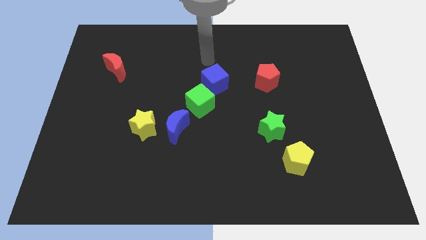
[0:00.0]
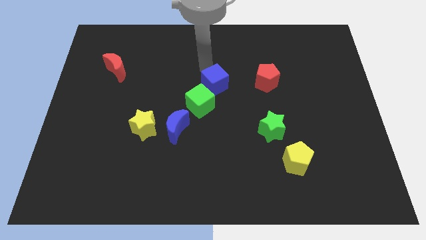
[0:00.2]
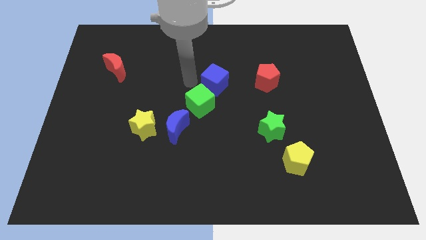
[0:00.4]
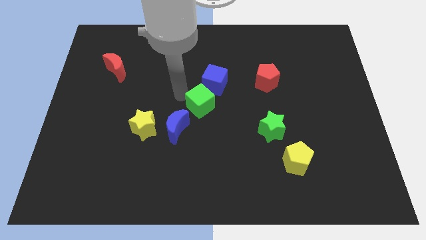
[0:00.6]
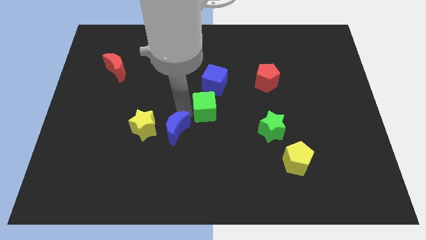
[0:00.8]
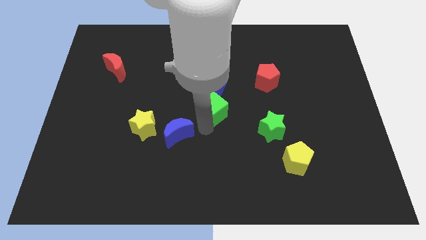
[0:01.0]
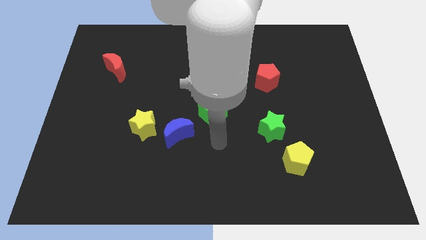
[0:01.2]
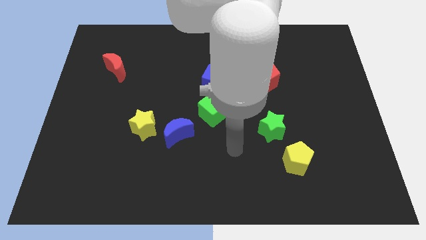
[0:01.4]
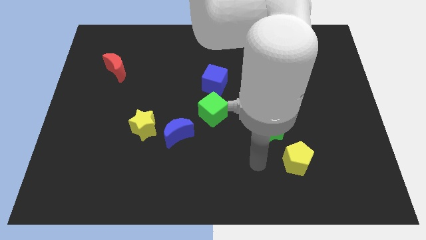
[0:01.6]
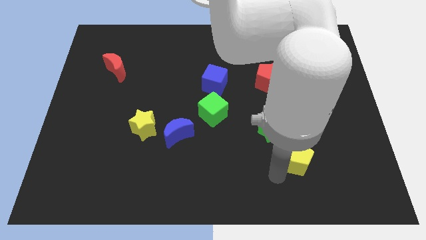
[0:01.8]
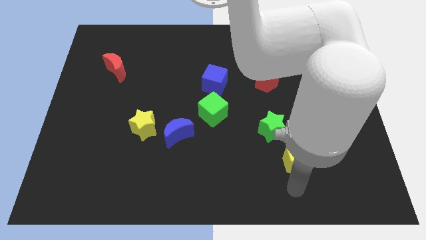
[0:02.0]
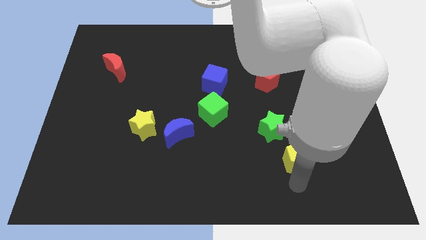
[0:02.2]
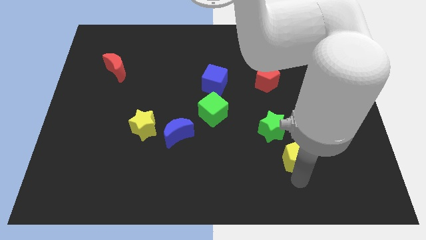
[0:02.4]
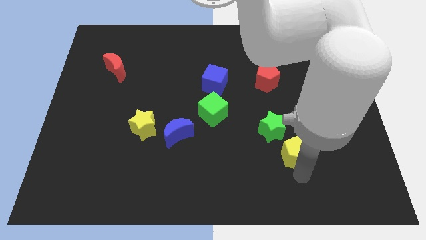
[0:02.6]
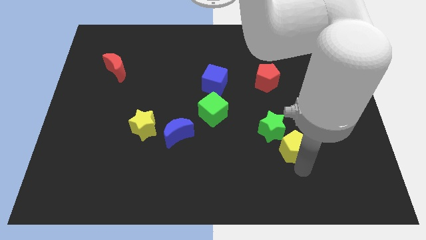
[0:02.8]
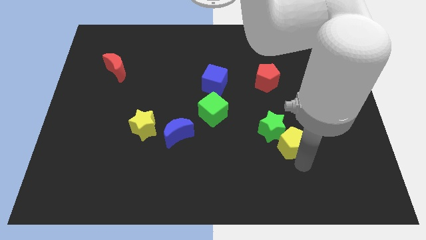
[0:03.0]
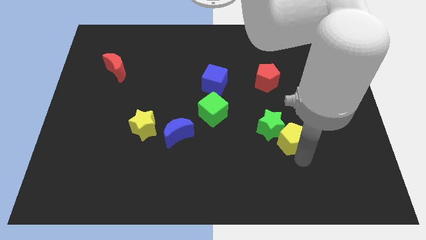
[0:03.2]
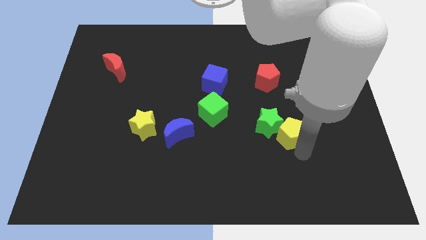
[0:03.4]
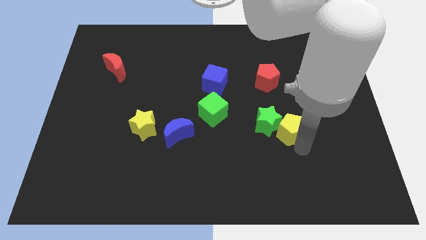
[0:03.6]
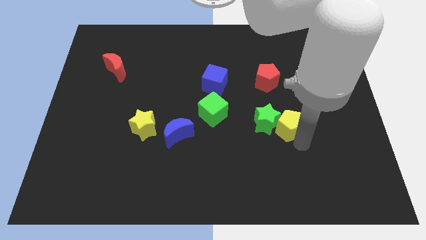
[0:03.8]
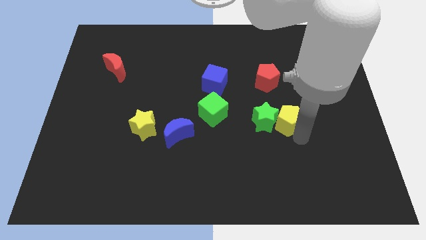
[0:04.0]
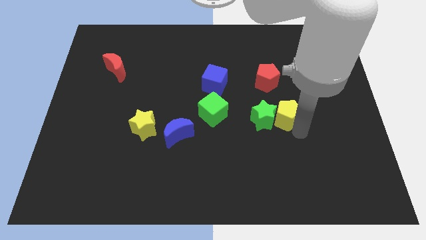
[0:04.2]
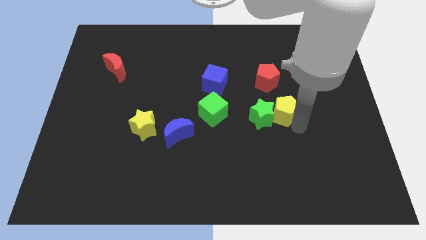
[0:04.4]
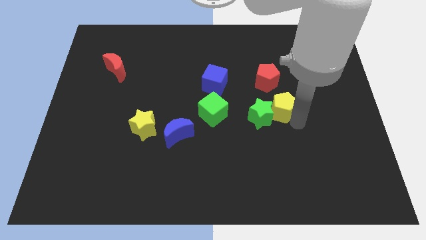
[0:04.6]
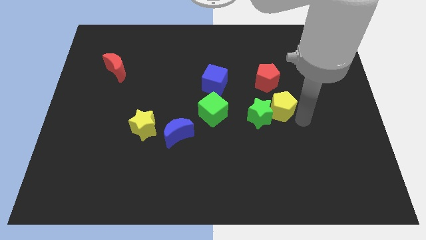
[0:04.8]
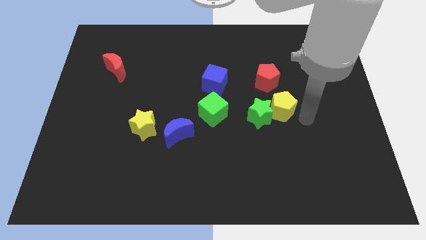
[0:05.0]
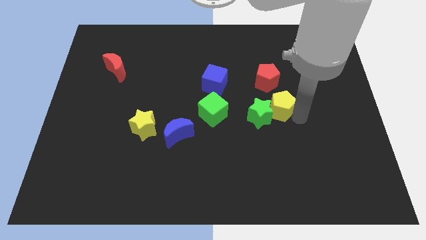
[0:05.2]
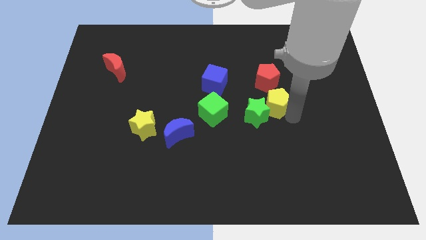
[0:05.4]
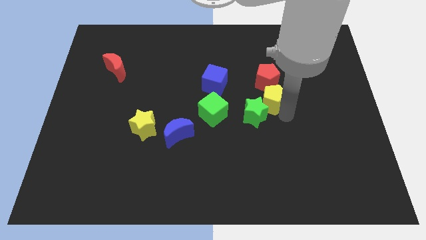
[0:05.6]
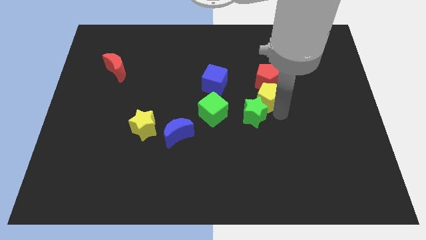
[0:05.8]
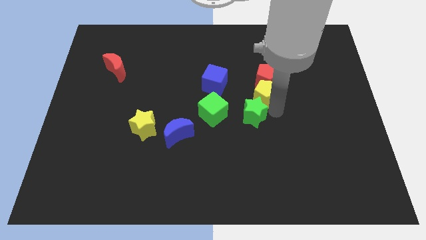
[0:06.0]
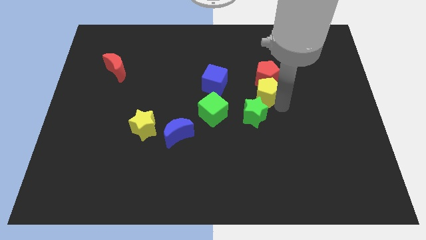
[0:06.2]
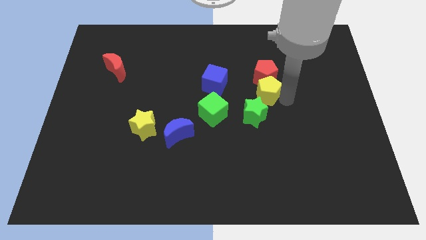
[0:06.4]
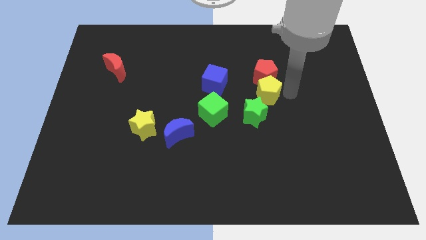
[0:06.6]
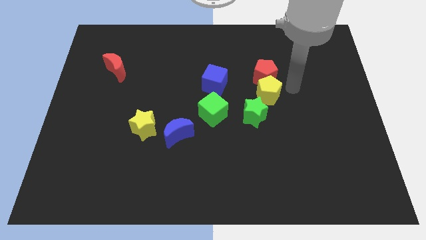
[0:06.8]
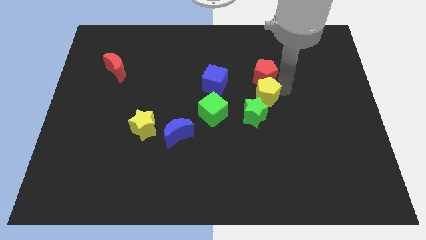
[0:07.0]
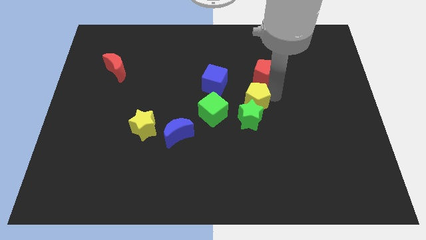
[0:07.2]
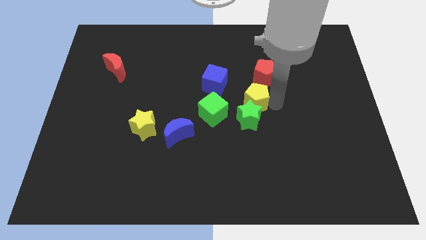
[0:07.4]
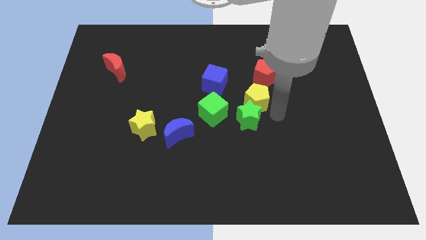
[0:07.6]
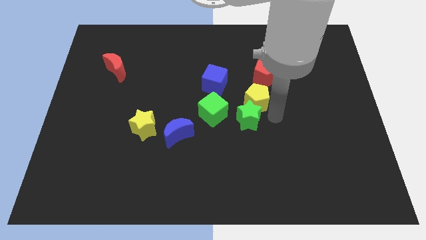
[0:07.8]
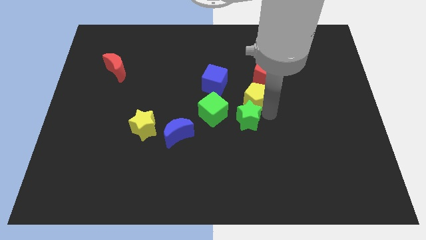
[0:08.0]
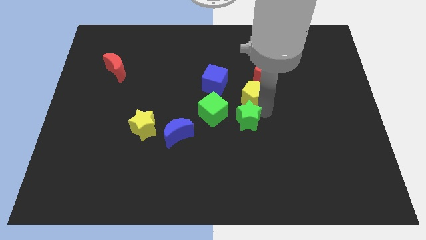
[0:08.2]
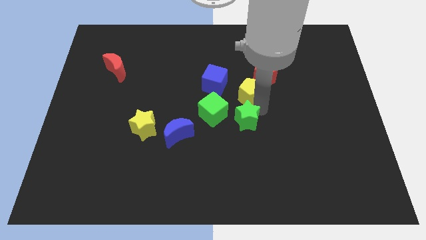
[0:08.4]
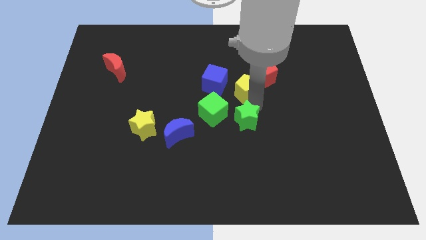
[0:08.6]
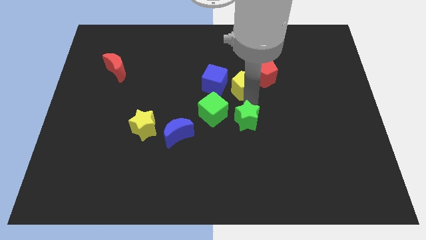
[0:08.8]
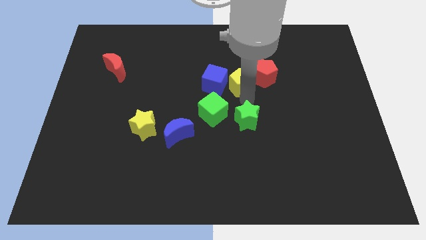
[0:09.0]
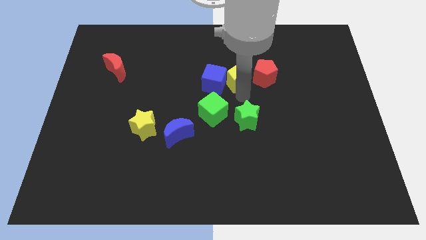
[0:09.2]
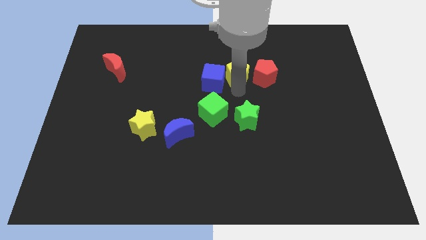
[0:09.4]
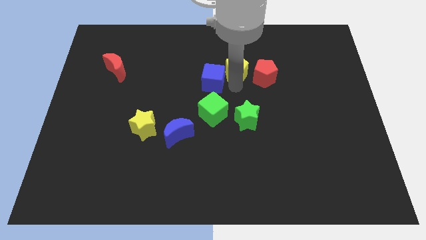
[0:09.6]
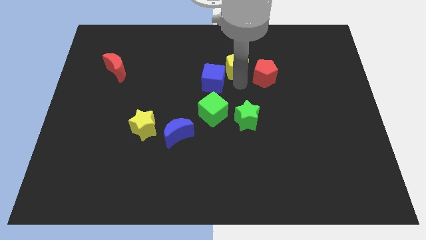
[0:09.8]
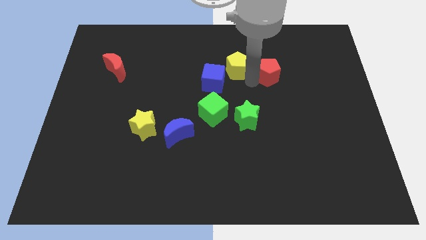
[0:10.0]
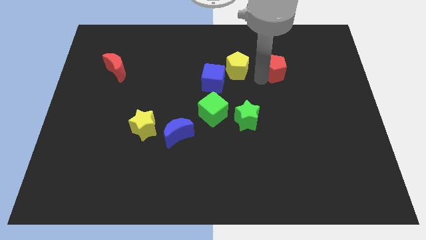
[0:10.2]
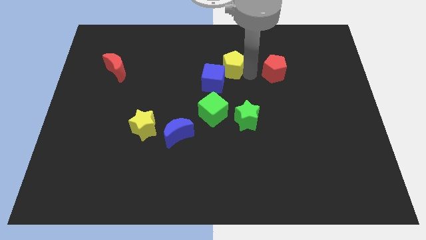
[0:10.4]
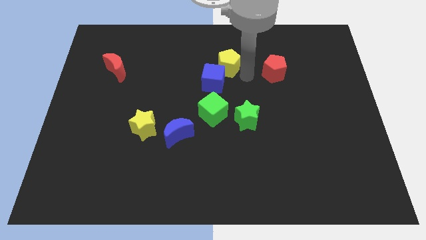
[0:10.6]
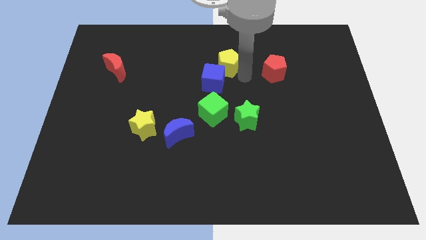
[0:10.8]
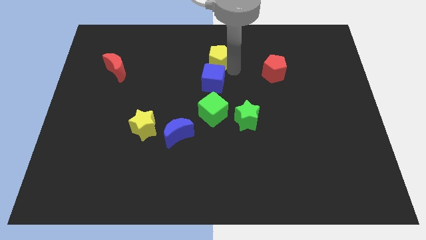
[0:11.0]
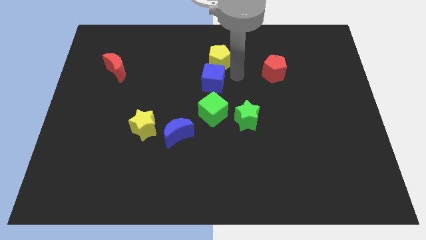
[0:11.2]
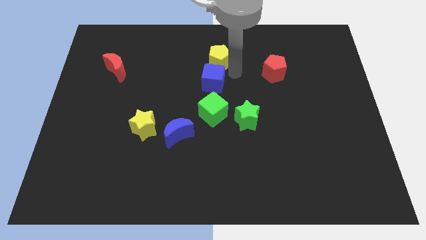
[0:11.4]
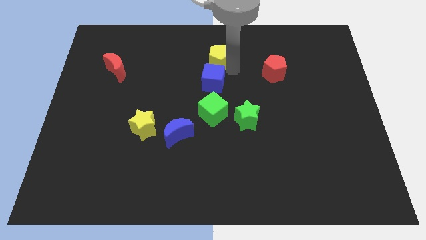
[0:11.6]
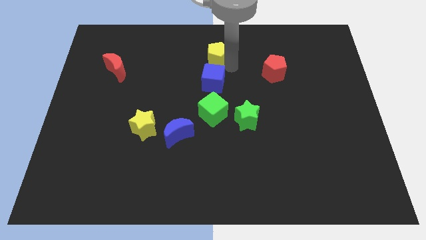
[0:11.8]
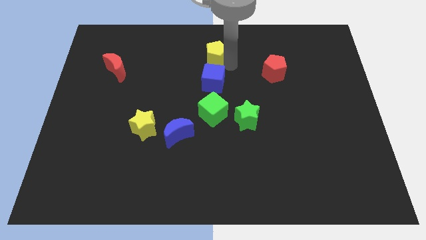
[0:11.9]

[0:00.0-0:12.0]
slide the yellow pentagon to the top
